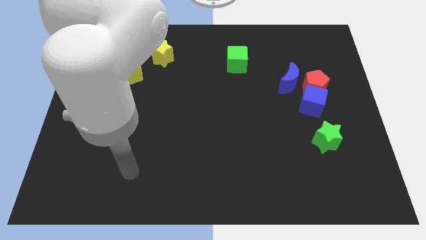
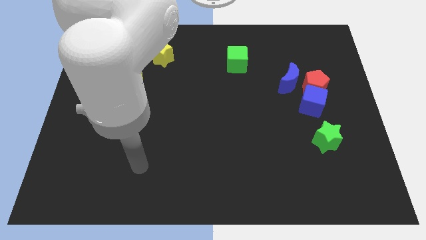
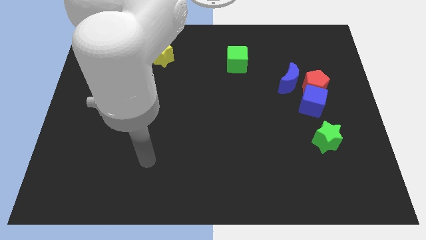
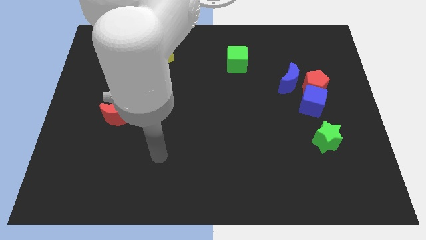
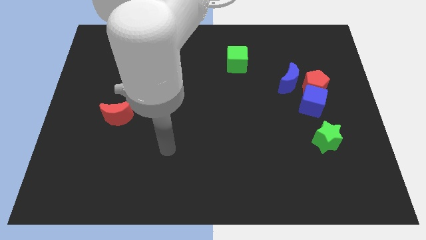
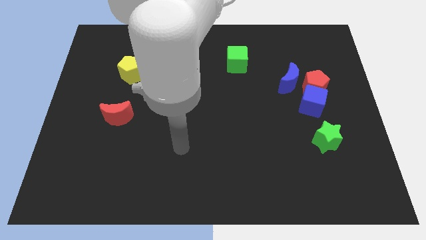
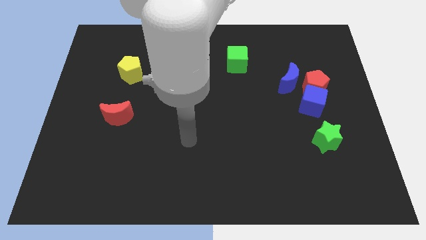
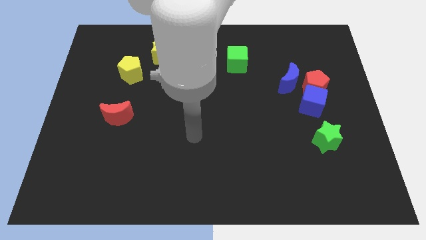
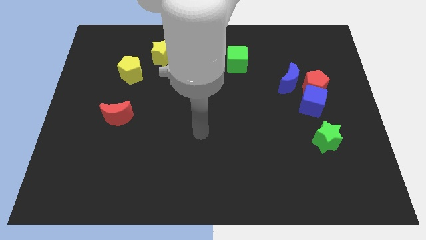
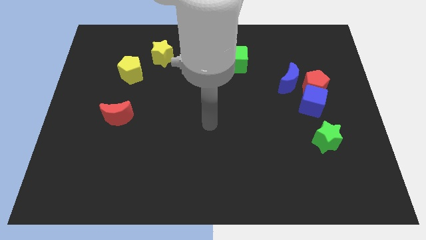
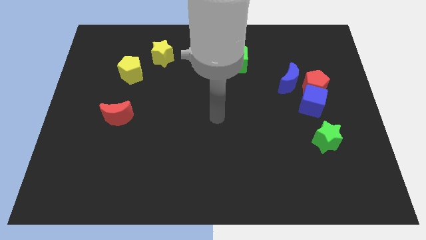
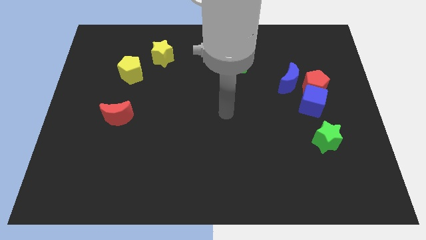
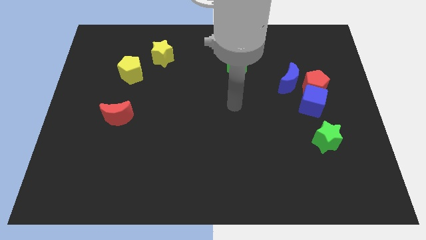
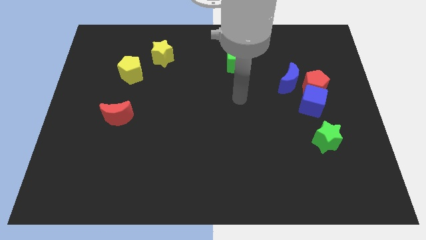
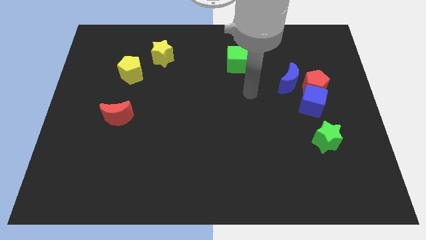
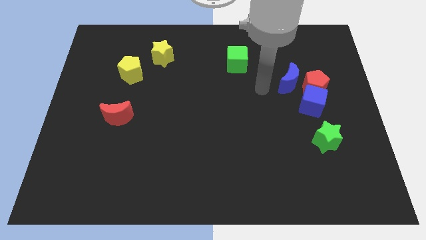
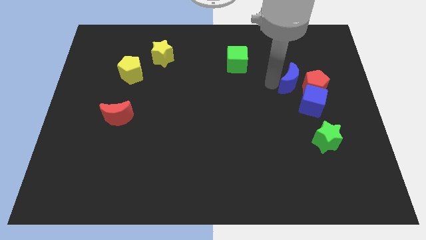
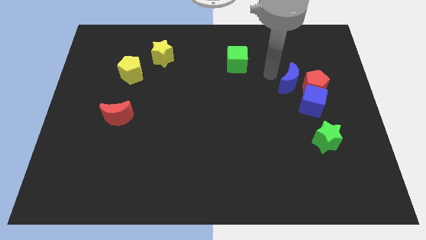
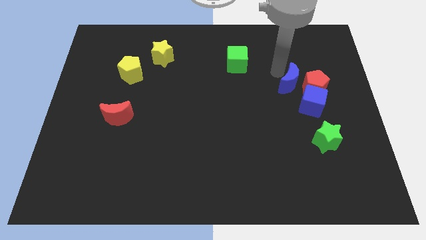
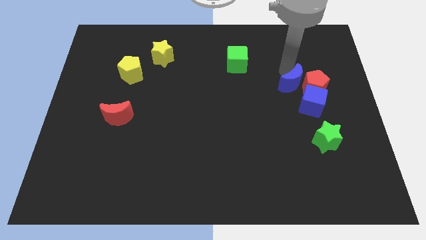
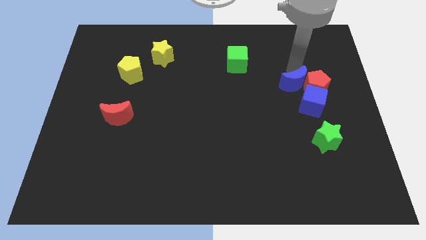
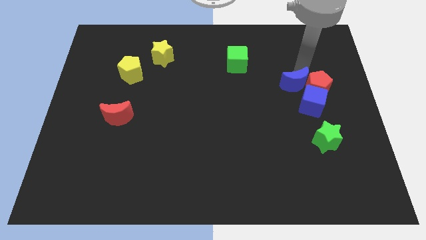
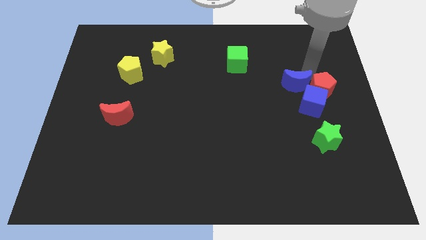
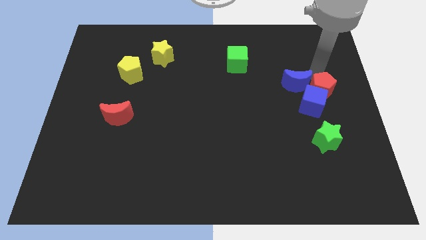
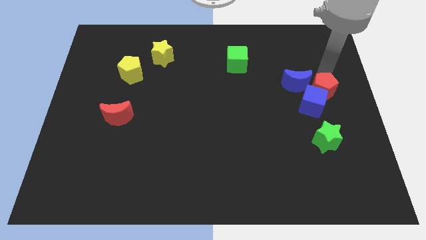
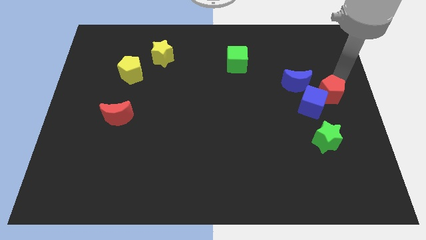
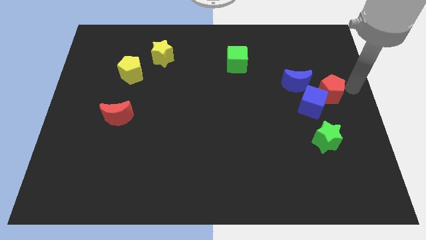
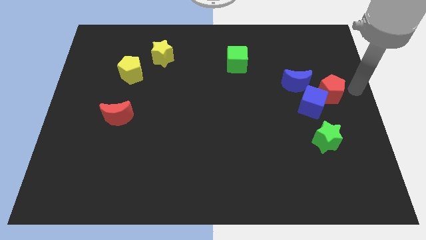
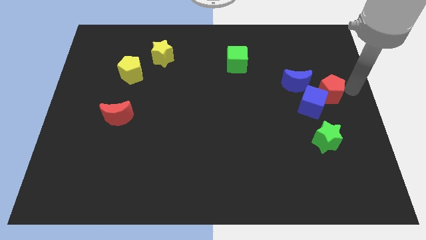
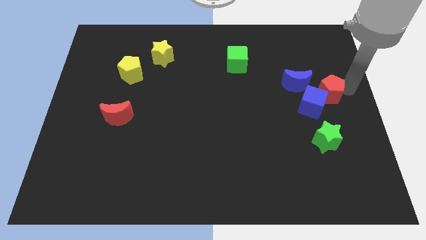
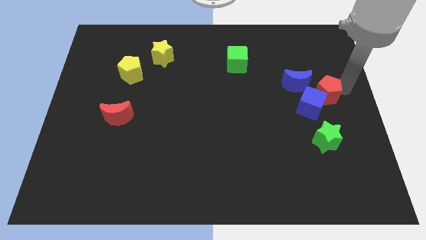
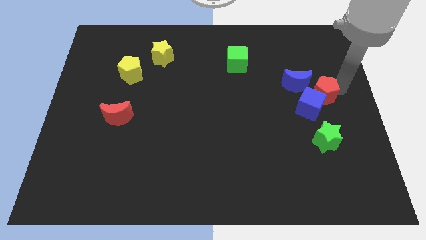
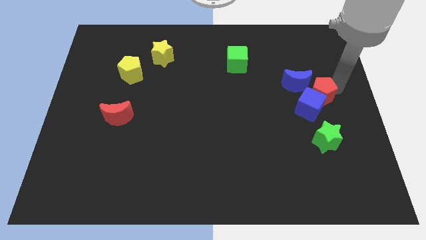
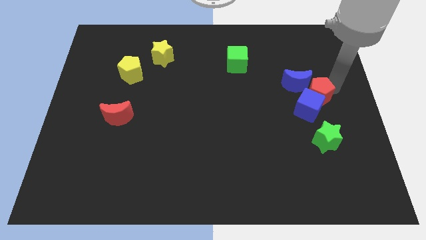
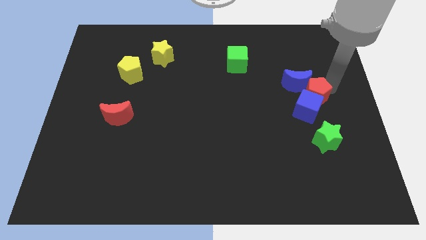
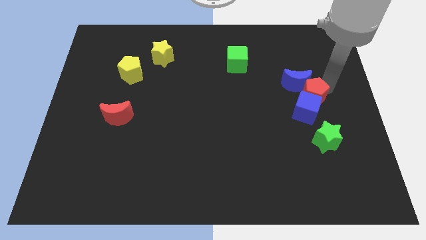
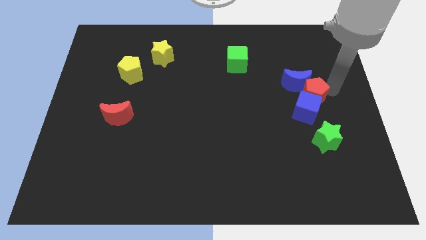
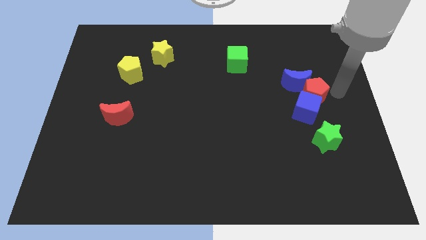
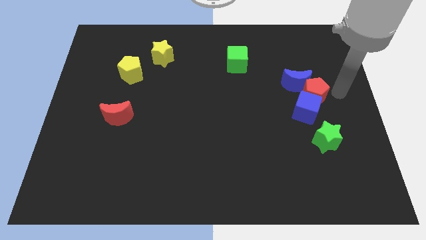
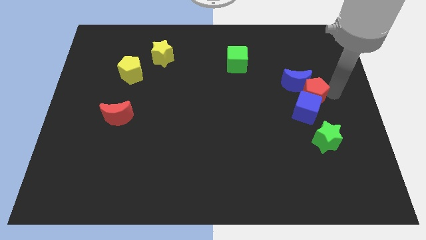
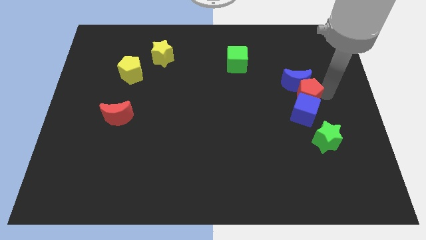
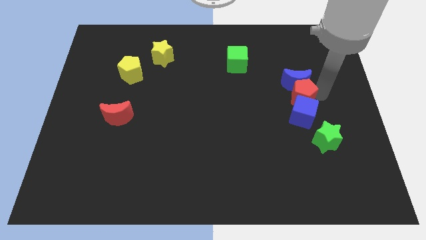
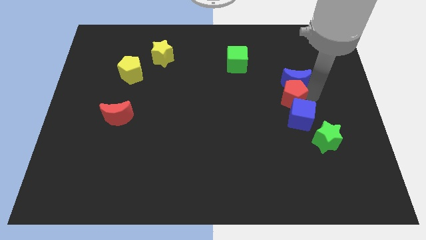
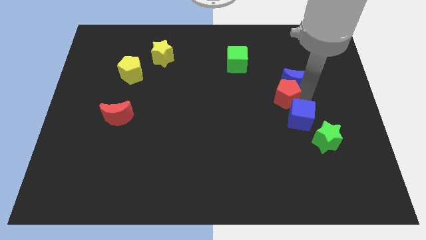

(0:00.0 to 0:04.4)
slide the red pentagon slightly to the left

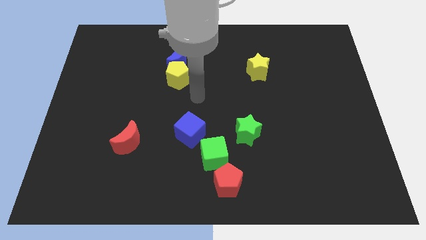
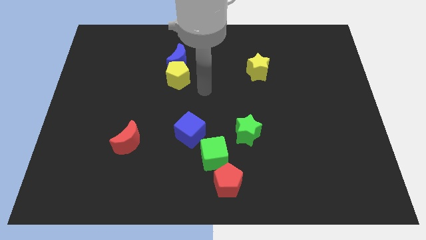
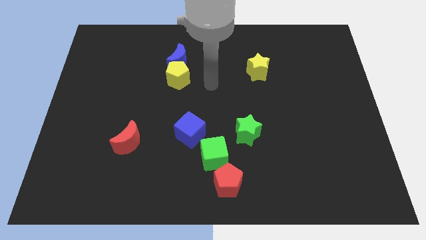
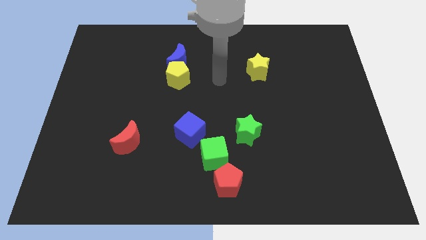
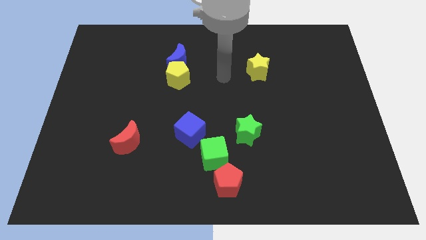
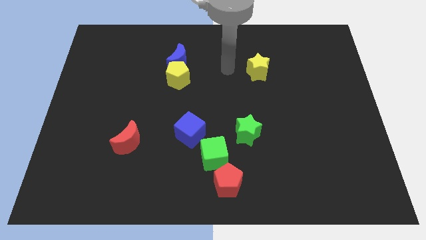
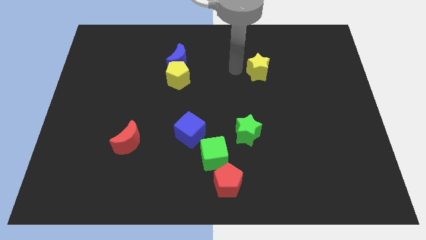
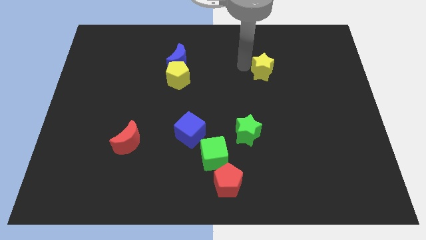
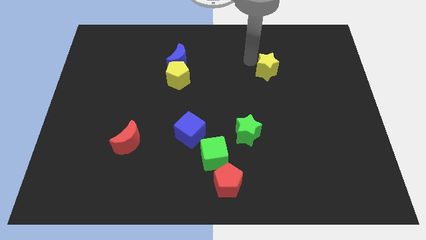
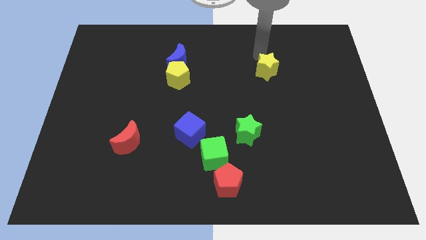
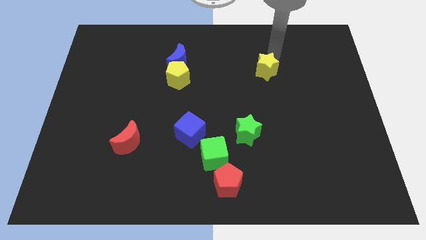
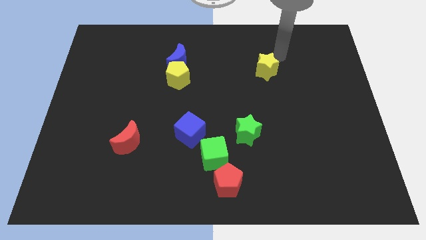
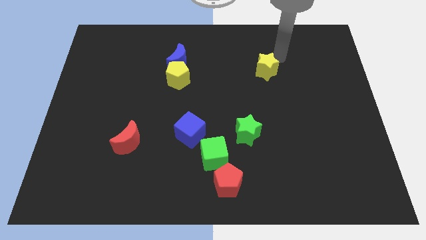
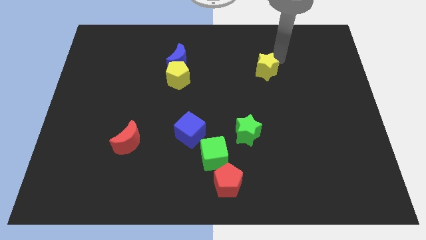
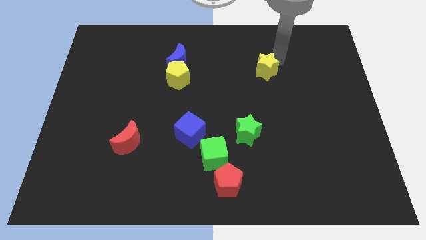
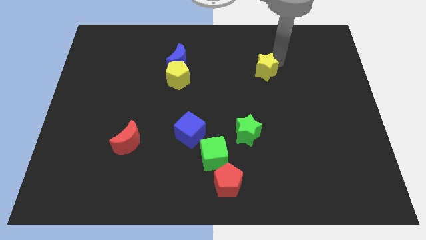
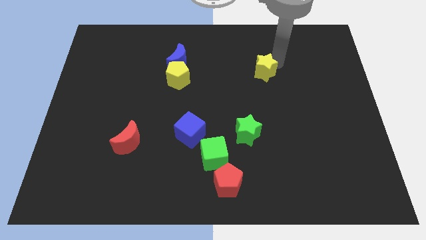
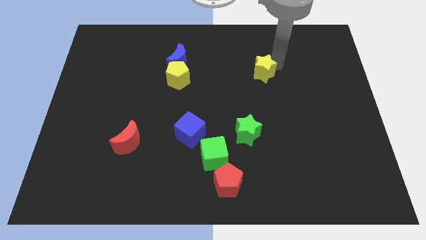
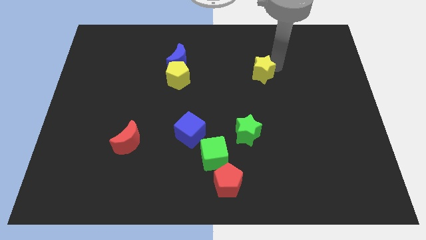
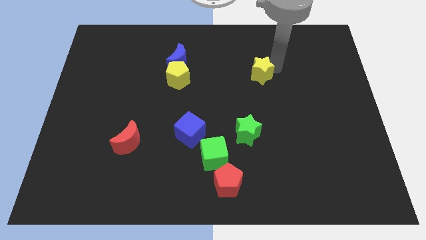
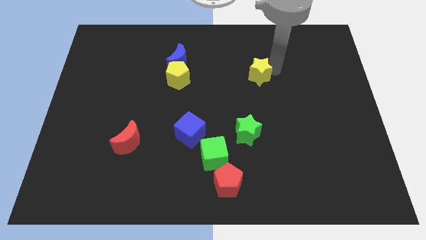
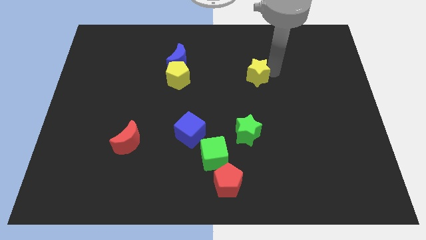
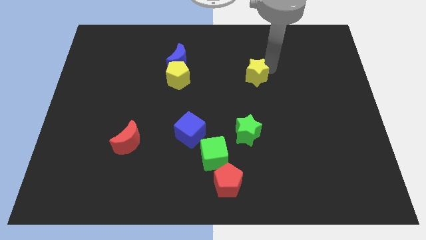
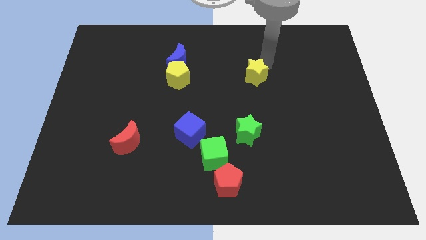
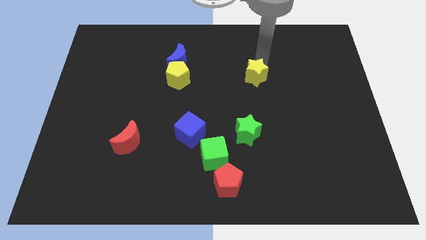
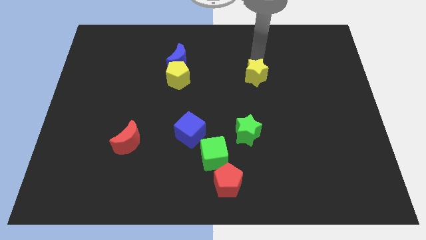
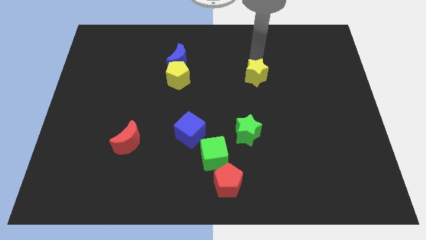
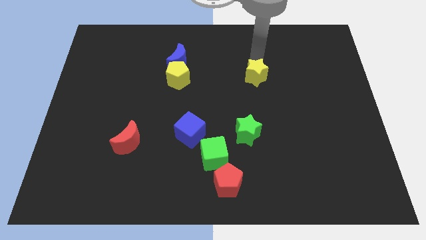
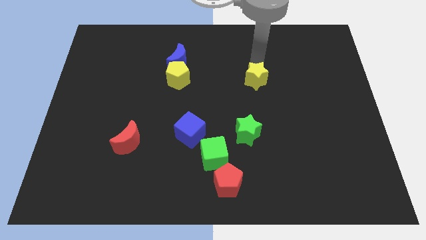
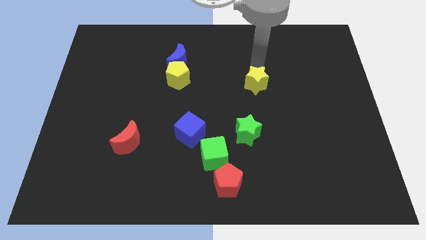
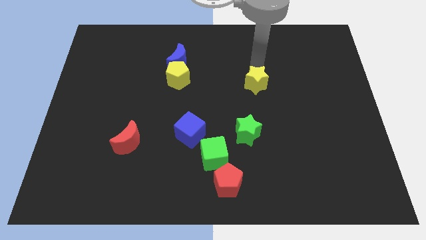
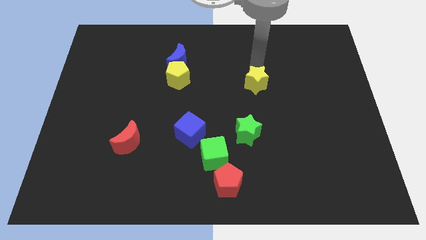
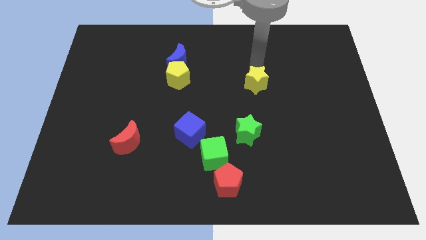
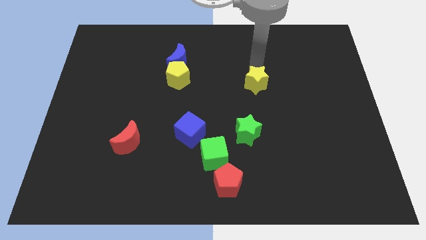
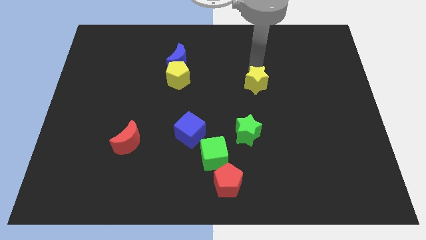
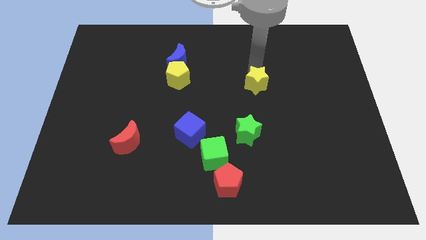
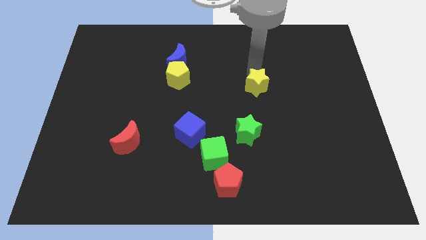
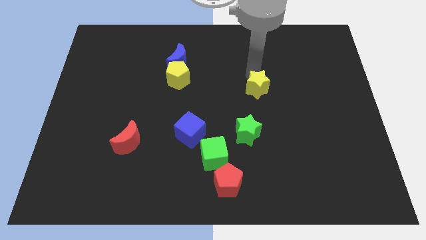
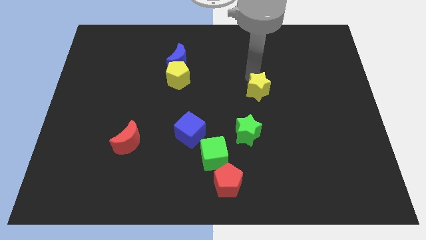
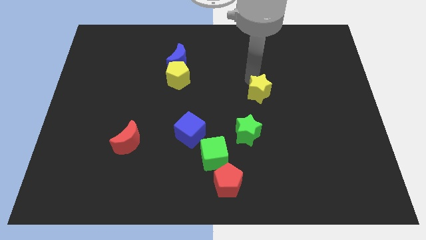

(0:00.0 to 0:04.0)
slightly push the yellow star down
